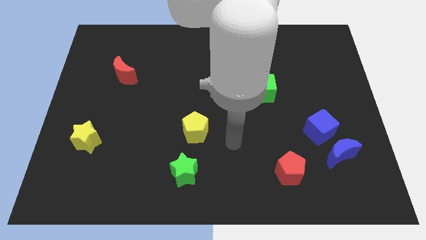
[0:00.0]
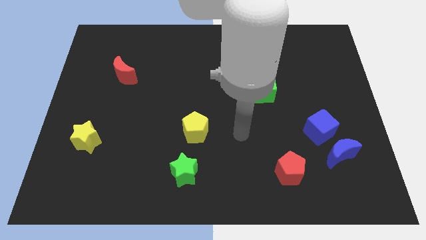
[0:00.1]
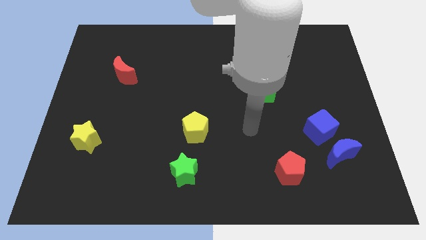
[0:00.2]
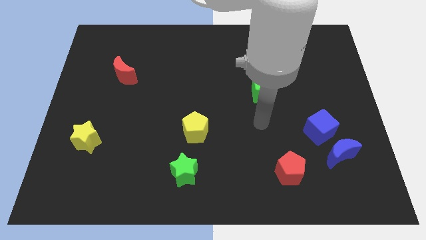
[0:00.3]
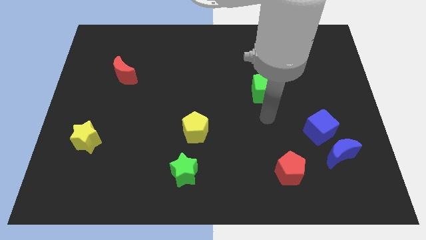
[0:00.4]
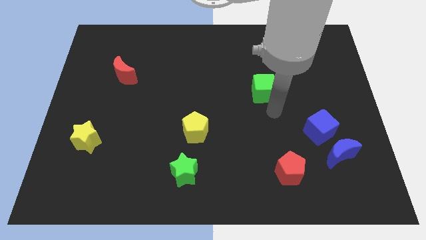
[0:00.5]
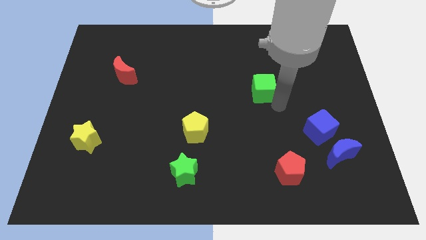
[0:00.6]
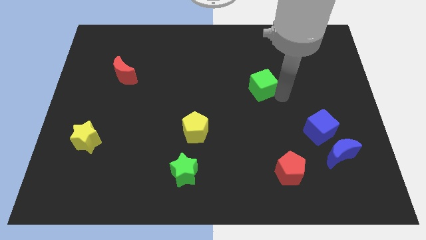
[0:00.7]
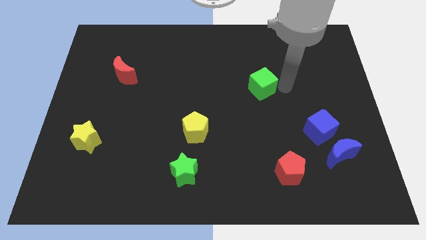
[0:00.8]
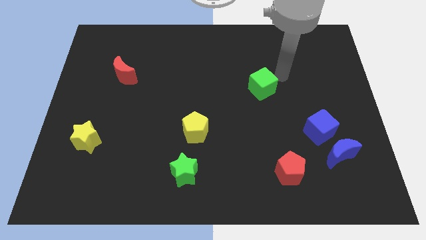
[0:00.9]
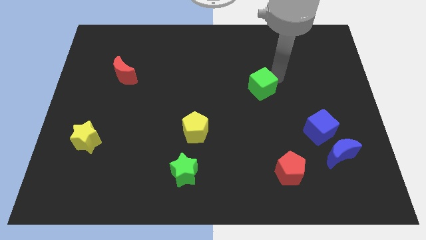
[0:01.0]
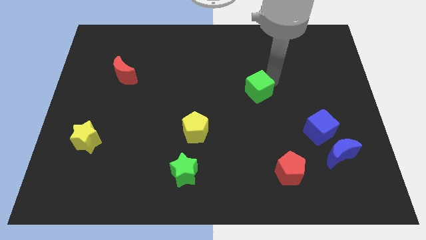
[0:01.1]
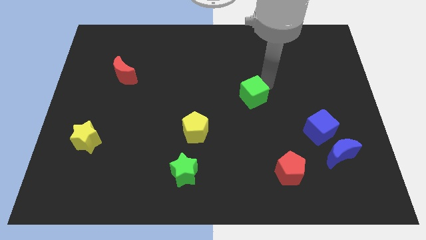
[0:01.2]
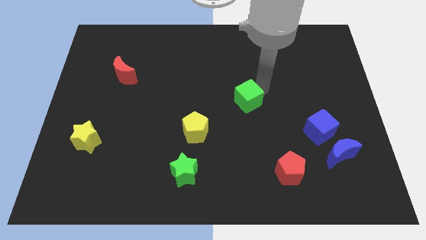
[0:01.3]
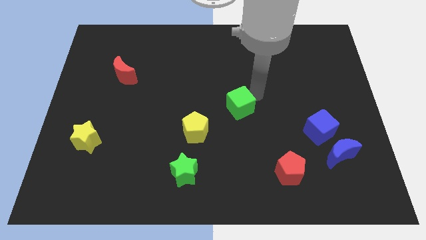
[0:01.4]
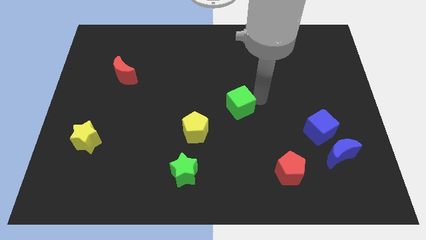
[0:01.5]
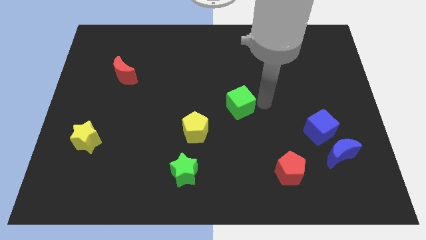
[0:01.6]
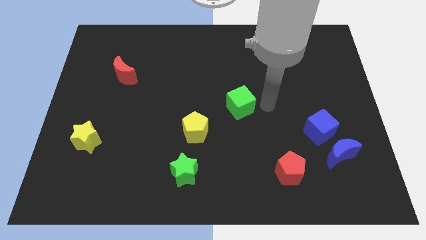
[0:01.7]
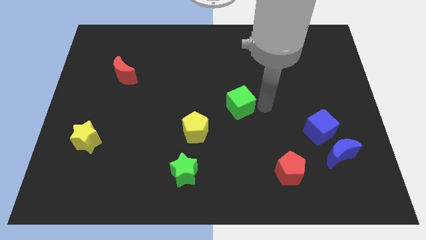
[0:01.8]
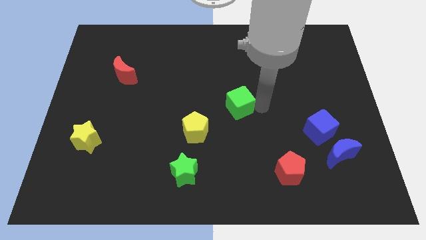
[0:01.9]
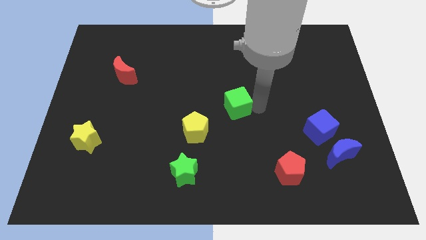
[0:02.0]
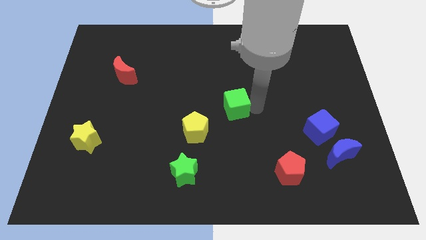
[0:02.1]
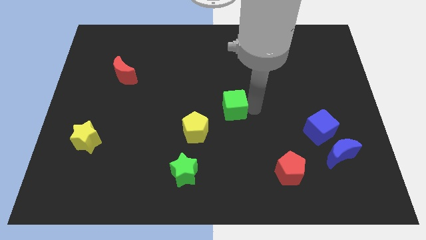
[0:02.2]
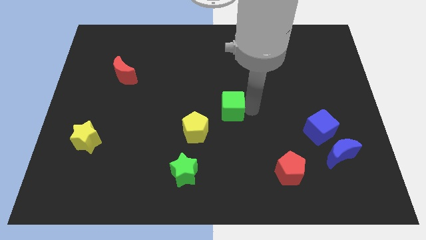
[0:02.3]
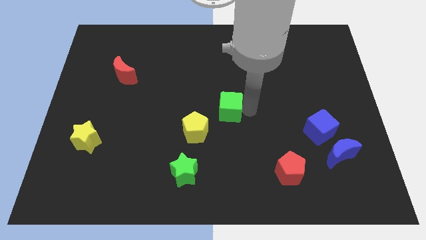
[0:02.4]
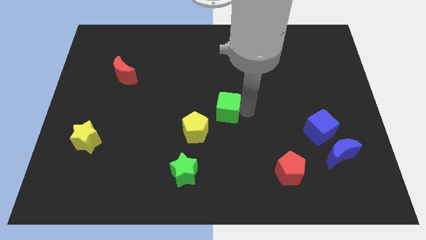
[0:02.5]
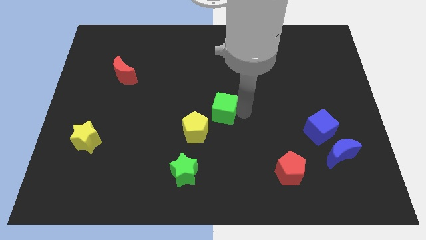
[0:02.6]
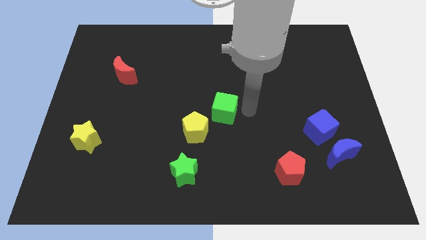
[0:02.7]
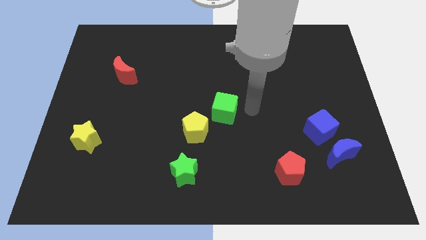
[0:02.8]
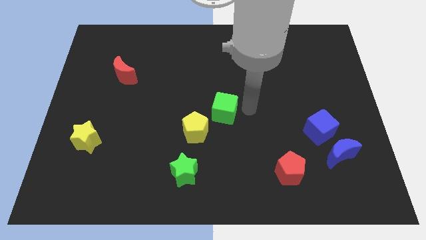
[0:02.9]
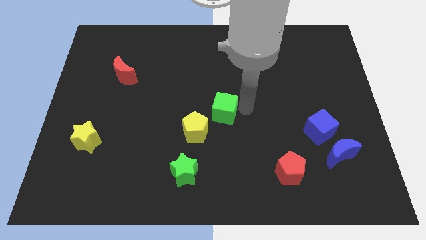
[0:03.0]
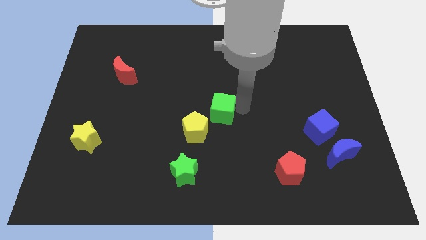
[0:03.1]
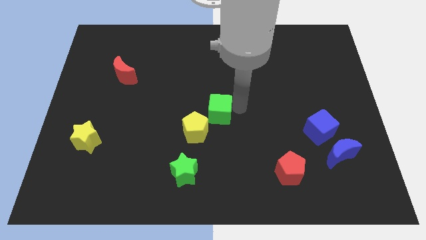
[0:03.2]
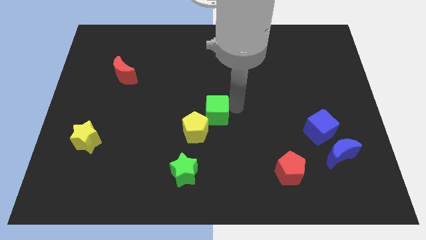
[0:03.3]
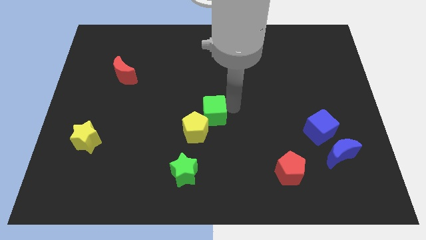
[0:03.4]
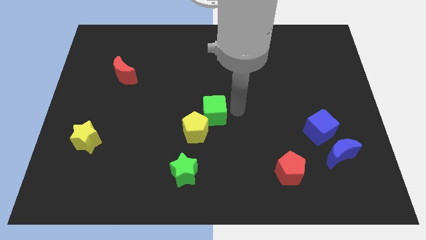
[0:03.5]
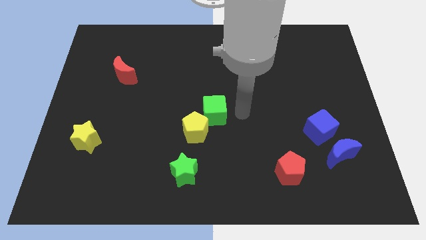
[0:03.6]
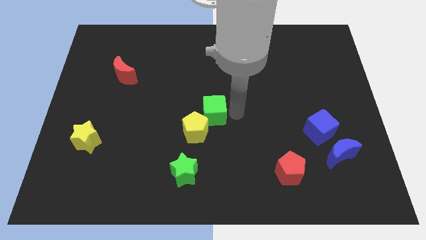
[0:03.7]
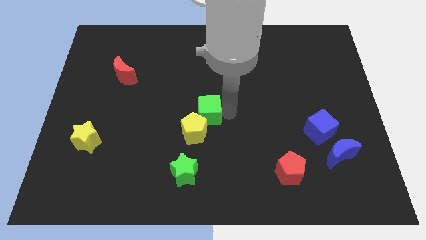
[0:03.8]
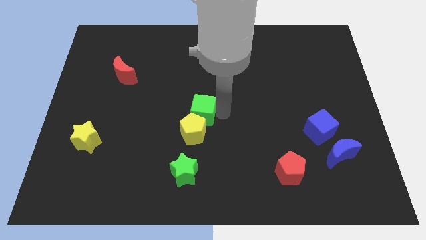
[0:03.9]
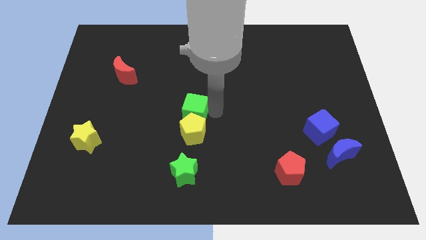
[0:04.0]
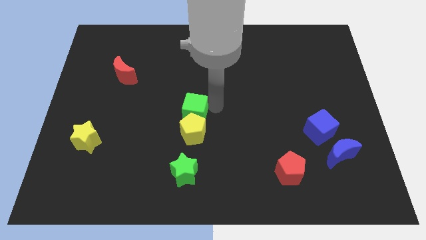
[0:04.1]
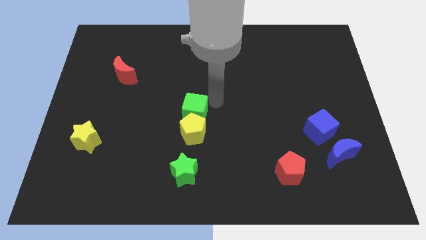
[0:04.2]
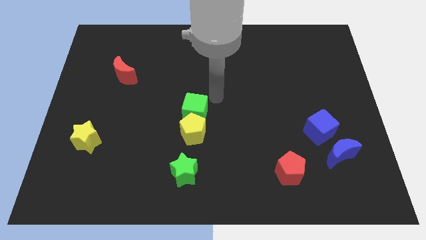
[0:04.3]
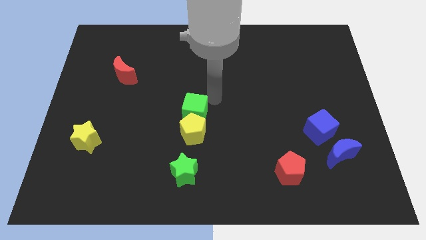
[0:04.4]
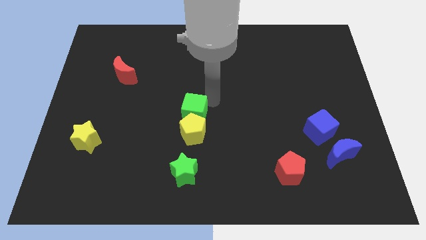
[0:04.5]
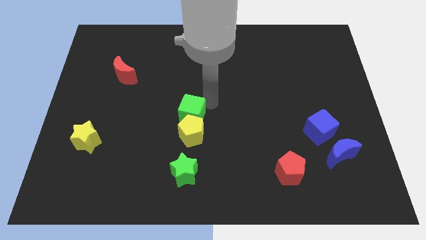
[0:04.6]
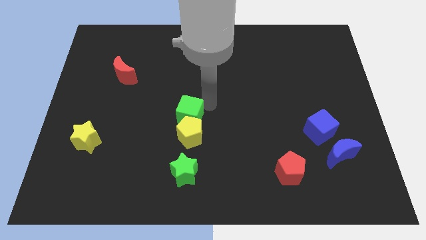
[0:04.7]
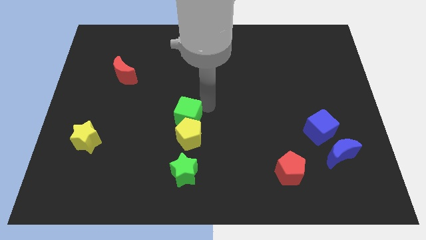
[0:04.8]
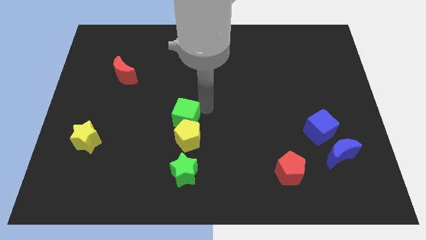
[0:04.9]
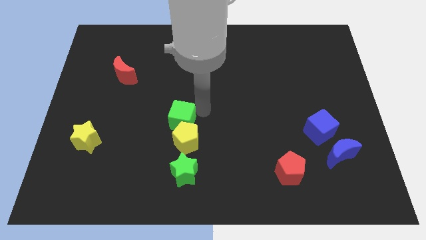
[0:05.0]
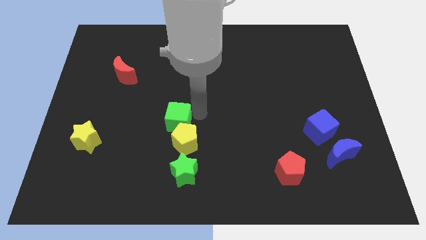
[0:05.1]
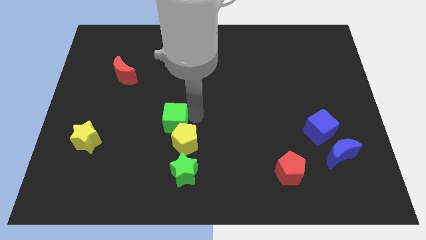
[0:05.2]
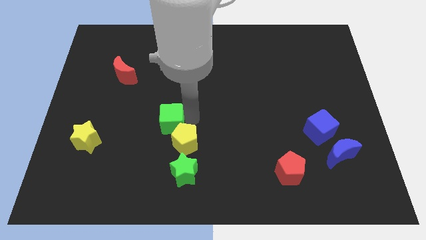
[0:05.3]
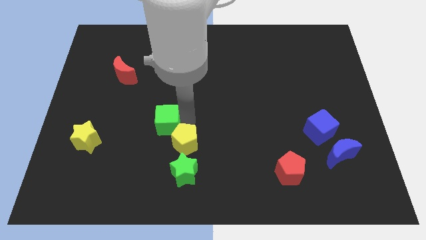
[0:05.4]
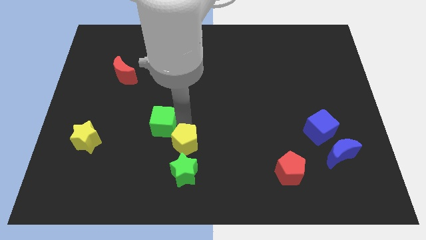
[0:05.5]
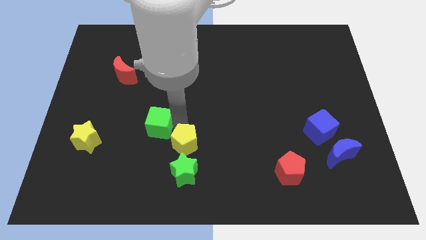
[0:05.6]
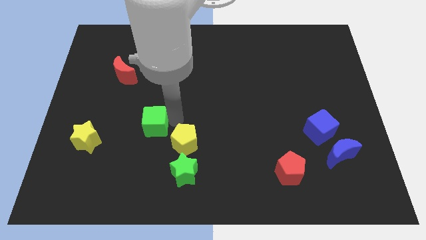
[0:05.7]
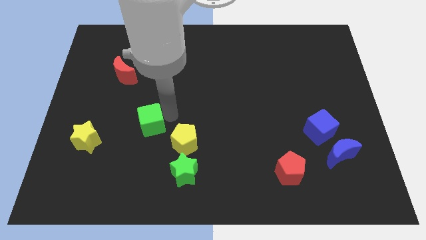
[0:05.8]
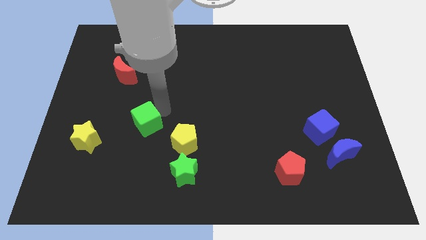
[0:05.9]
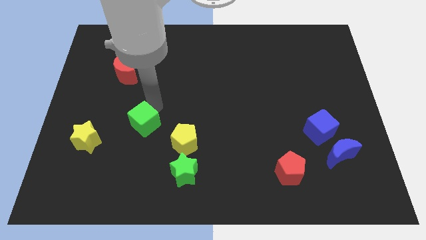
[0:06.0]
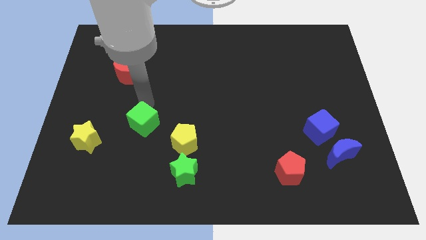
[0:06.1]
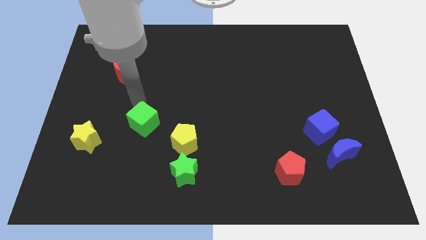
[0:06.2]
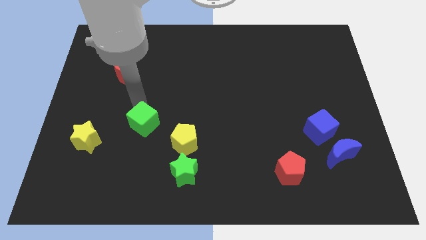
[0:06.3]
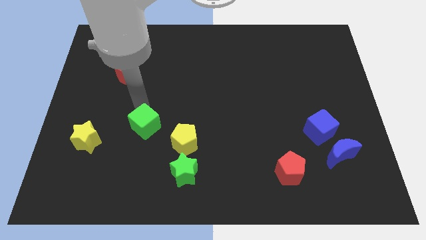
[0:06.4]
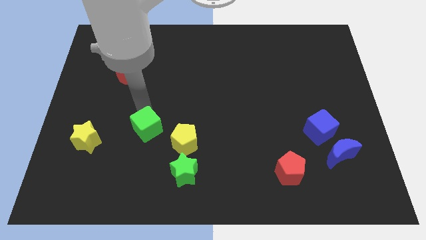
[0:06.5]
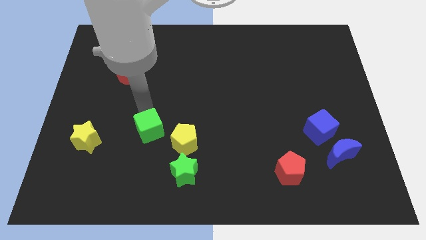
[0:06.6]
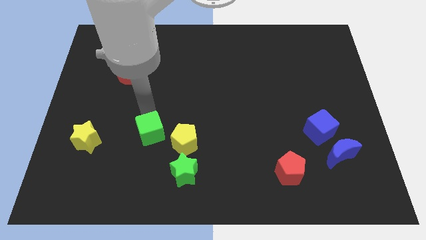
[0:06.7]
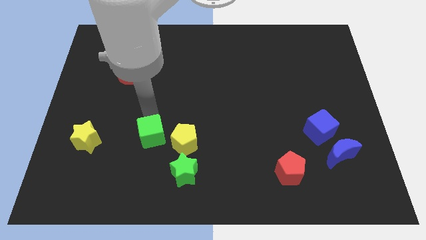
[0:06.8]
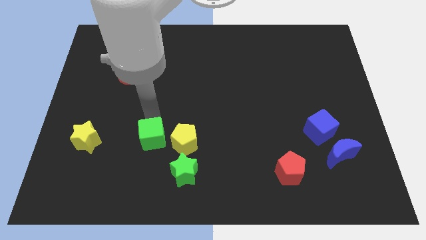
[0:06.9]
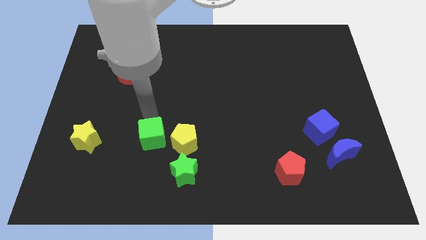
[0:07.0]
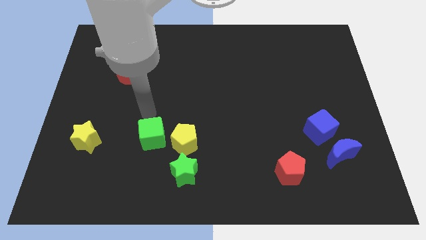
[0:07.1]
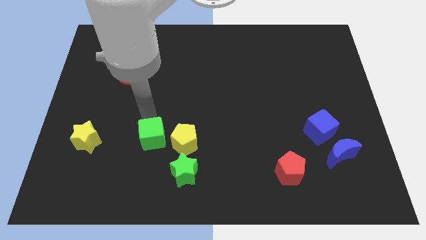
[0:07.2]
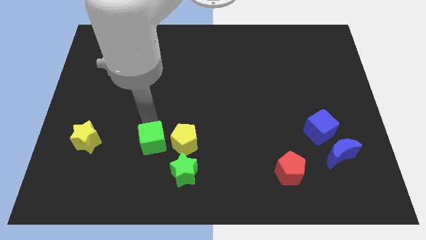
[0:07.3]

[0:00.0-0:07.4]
slide the green cube to the bottom left side of the yellow pentagon
